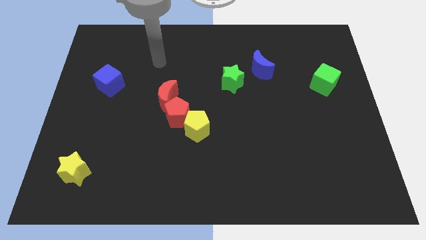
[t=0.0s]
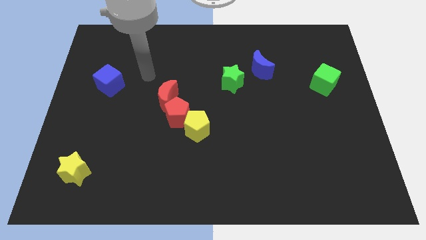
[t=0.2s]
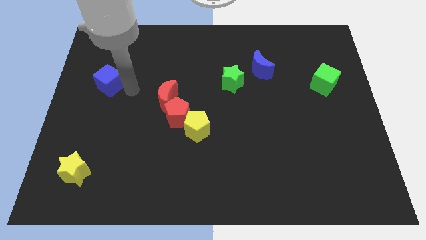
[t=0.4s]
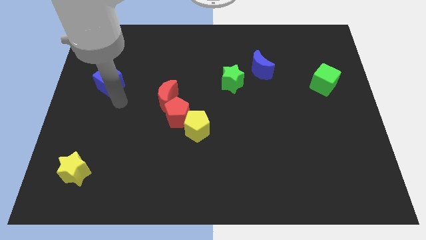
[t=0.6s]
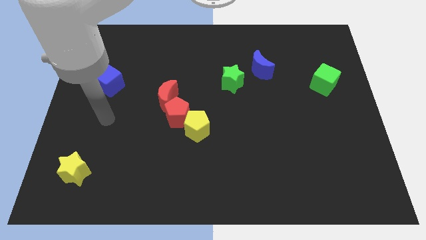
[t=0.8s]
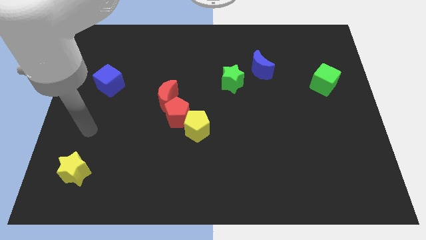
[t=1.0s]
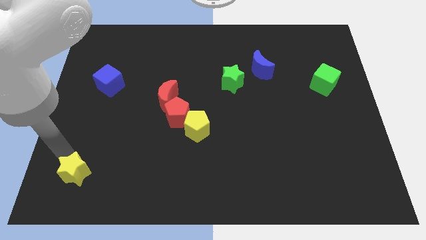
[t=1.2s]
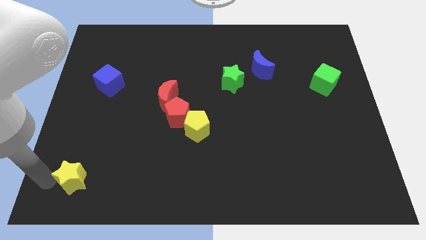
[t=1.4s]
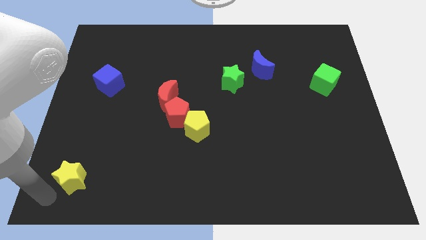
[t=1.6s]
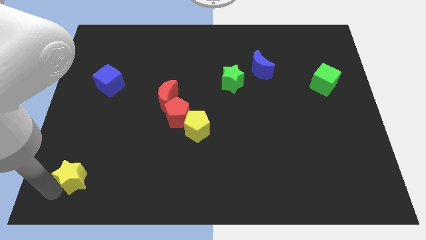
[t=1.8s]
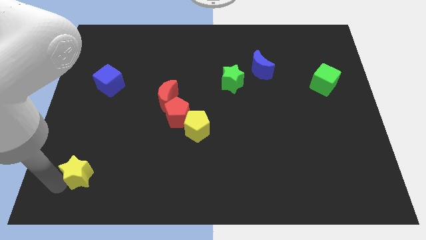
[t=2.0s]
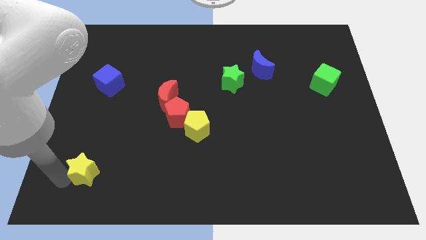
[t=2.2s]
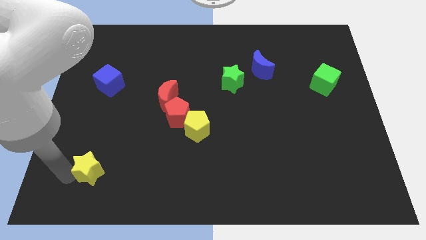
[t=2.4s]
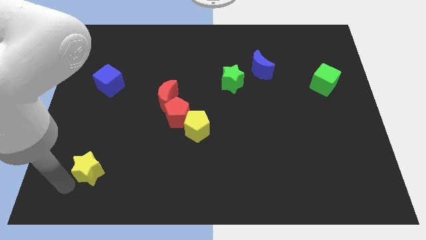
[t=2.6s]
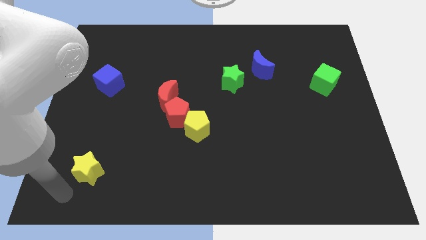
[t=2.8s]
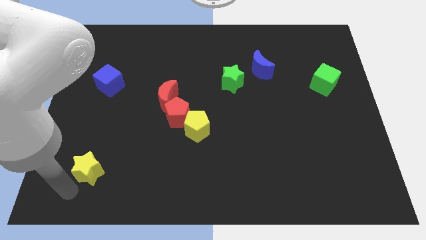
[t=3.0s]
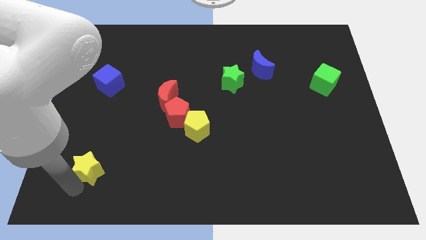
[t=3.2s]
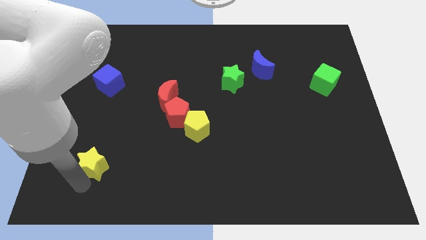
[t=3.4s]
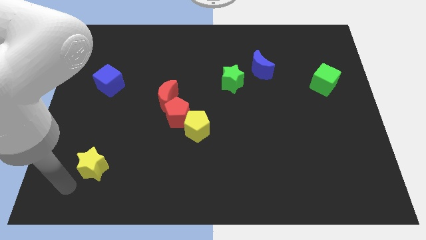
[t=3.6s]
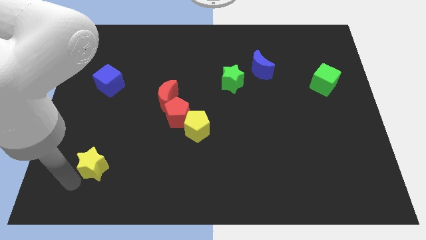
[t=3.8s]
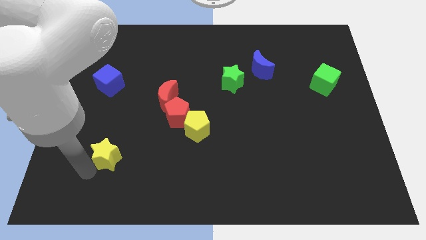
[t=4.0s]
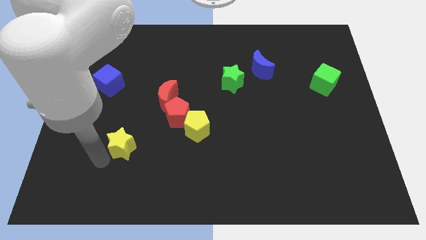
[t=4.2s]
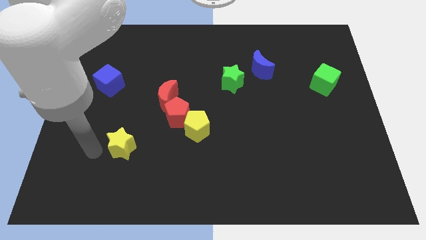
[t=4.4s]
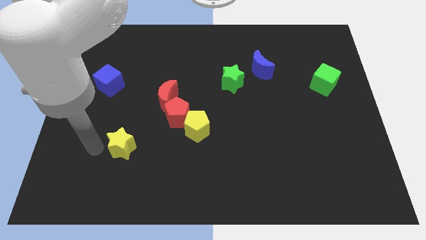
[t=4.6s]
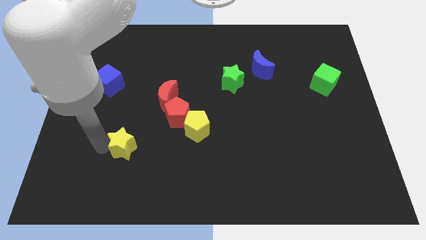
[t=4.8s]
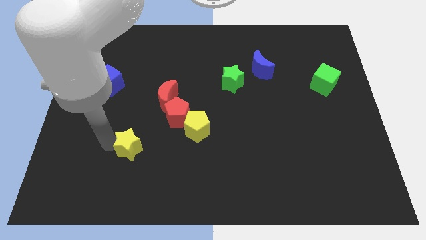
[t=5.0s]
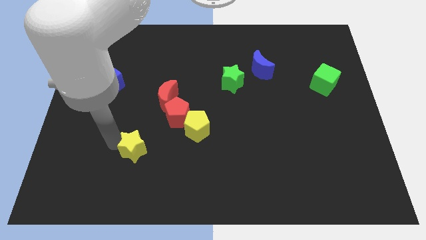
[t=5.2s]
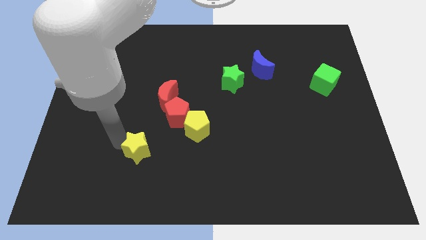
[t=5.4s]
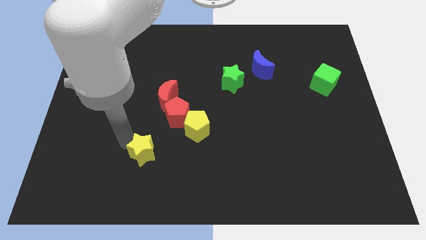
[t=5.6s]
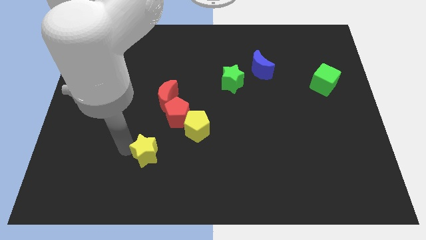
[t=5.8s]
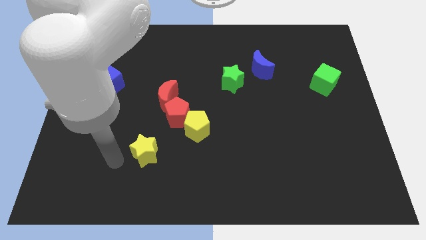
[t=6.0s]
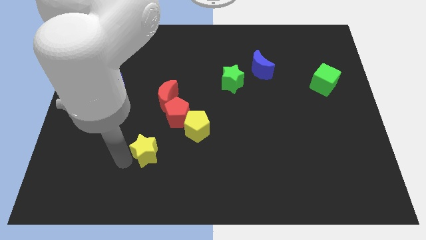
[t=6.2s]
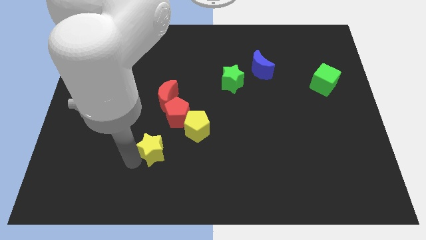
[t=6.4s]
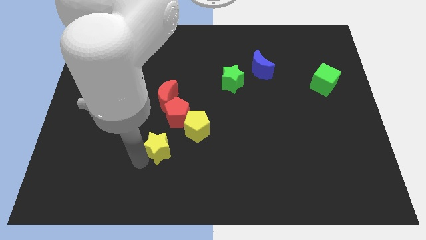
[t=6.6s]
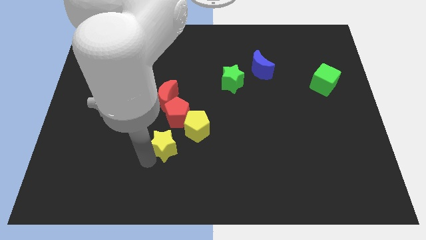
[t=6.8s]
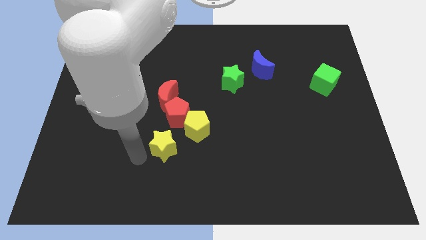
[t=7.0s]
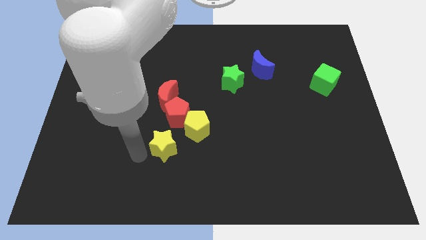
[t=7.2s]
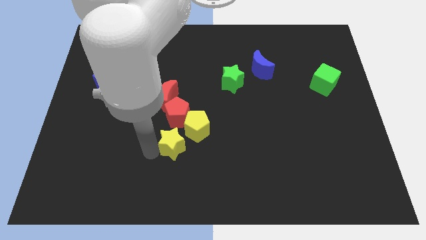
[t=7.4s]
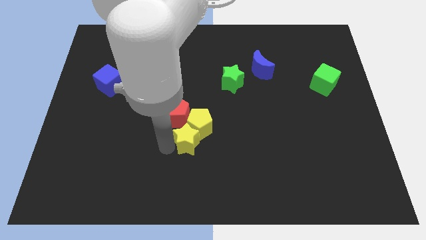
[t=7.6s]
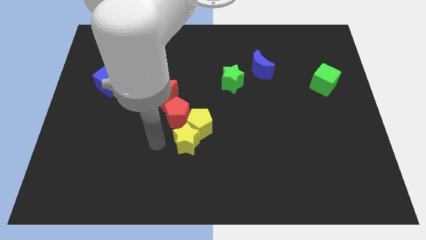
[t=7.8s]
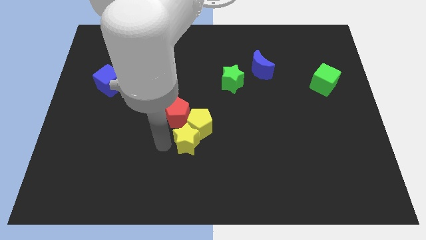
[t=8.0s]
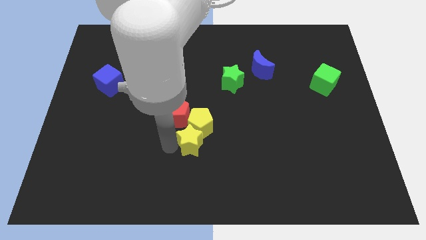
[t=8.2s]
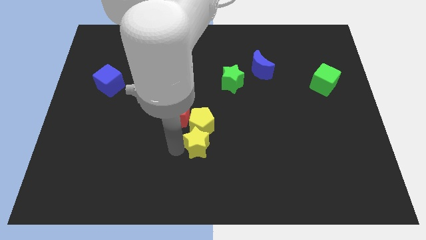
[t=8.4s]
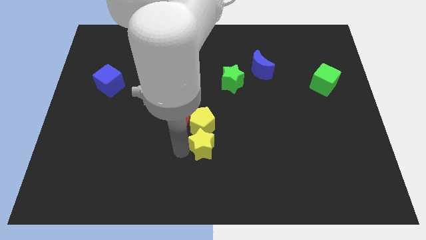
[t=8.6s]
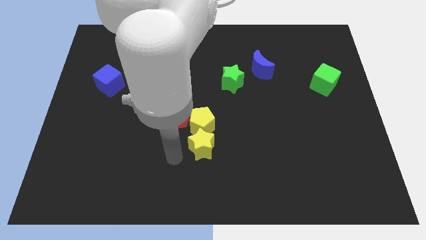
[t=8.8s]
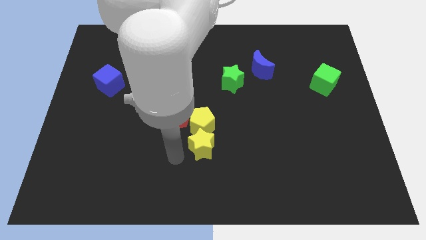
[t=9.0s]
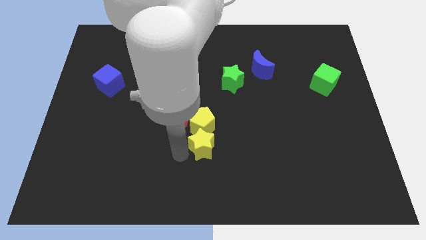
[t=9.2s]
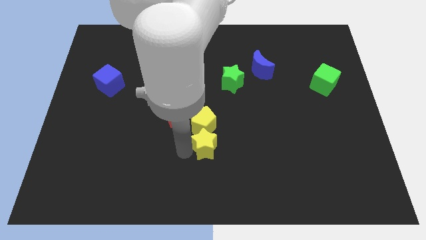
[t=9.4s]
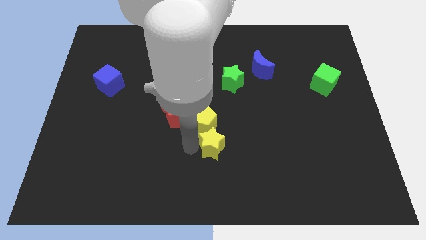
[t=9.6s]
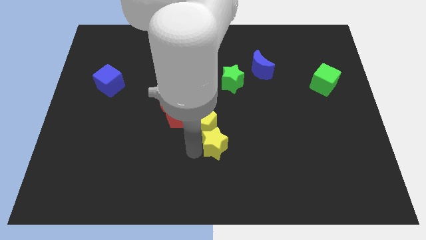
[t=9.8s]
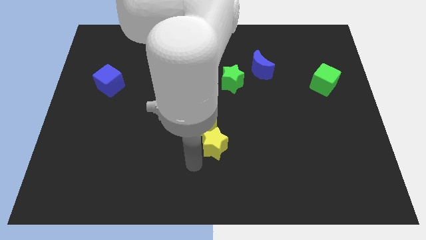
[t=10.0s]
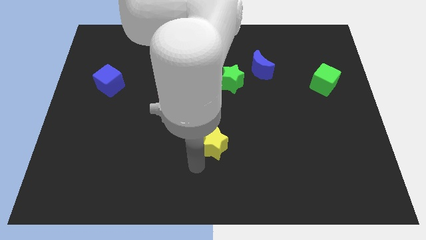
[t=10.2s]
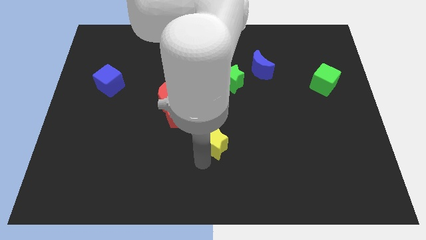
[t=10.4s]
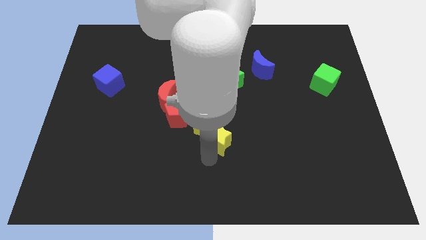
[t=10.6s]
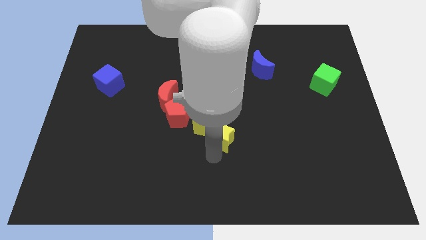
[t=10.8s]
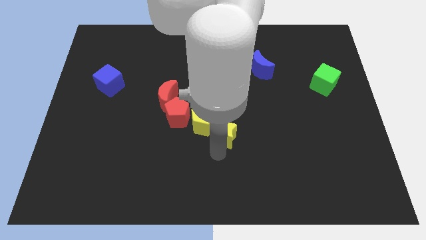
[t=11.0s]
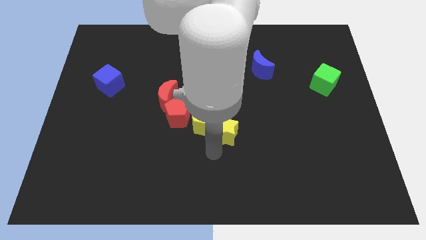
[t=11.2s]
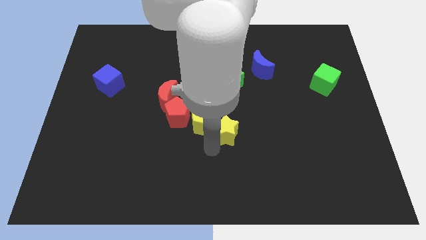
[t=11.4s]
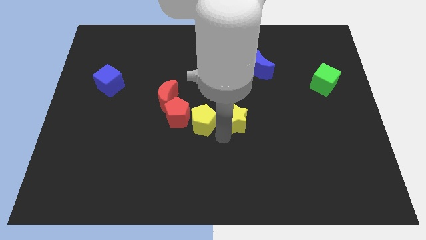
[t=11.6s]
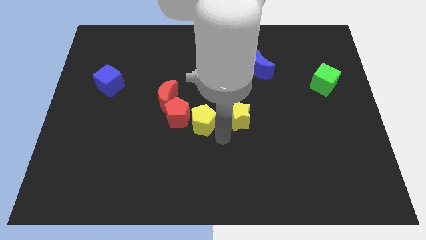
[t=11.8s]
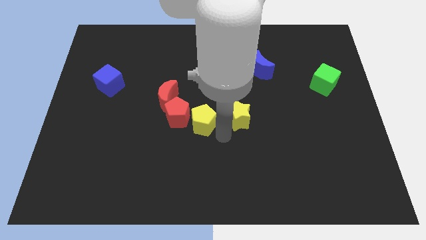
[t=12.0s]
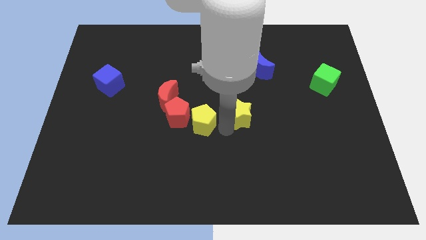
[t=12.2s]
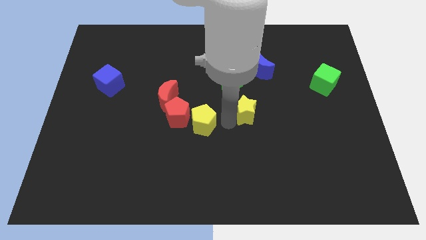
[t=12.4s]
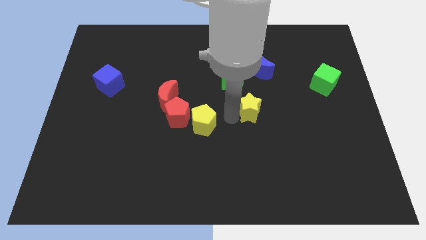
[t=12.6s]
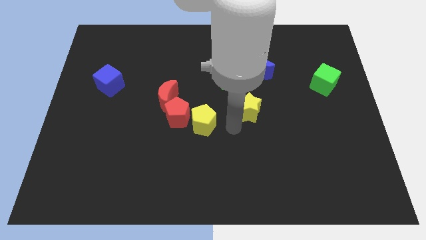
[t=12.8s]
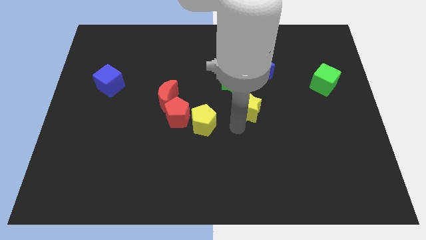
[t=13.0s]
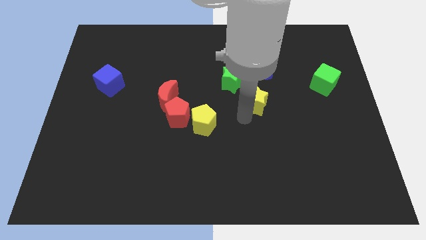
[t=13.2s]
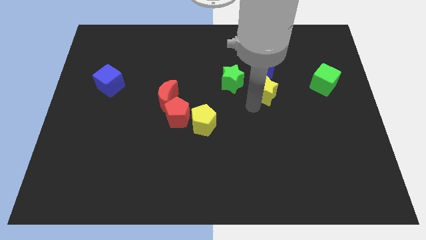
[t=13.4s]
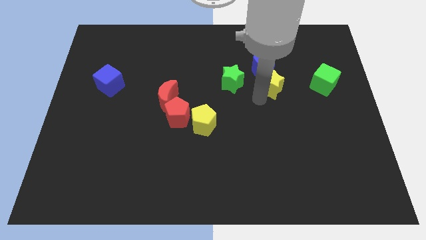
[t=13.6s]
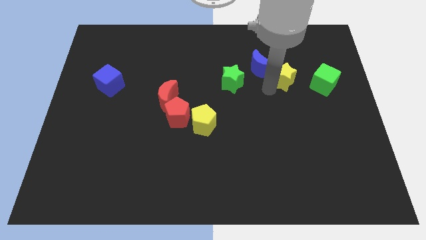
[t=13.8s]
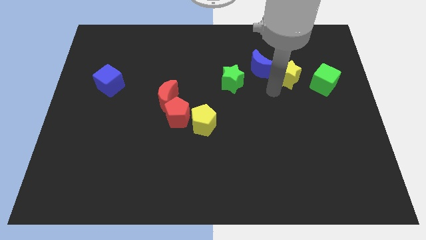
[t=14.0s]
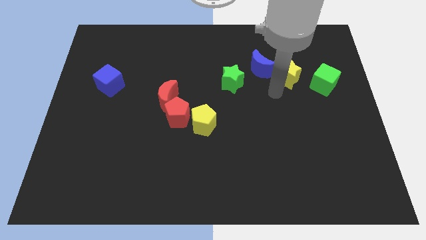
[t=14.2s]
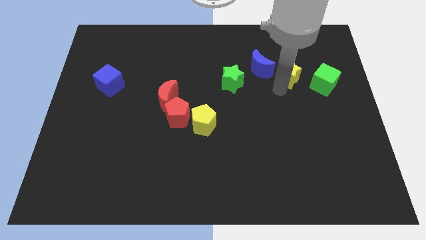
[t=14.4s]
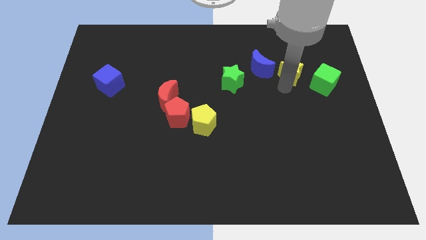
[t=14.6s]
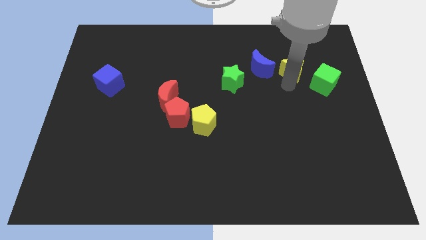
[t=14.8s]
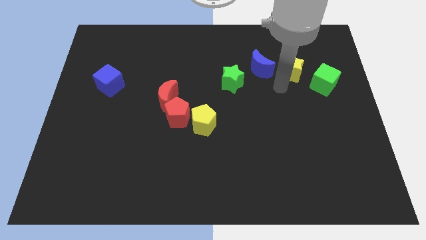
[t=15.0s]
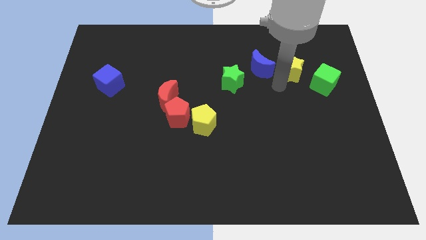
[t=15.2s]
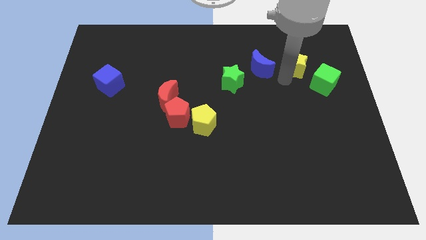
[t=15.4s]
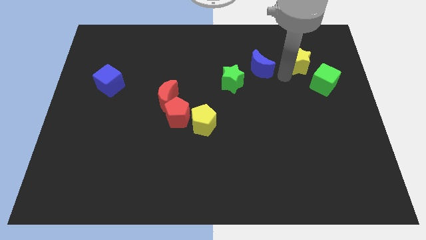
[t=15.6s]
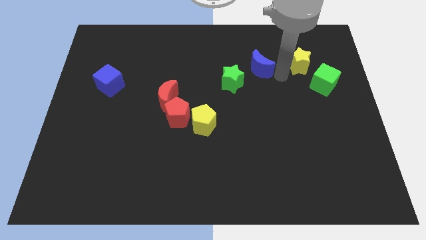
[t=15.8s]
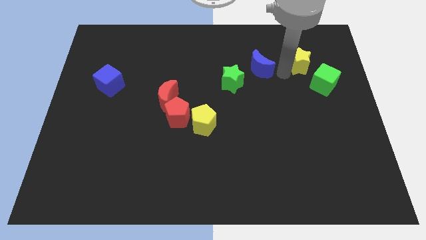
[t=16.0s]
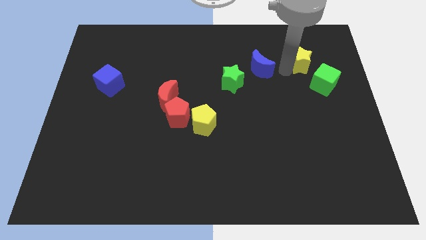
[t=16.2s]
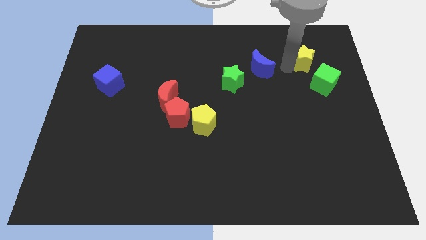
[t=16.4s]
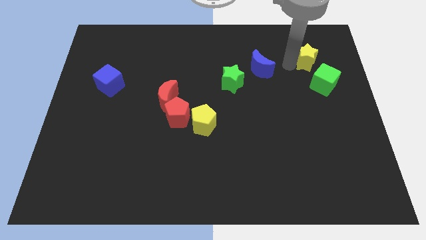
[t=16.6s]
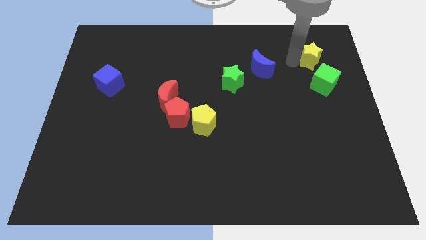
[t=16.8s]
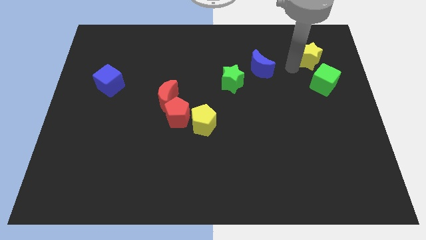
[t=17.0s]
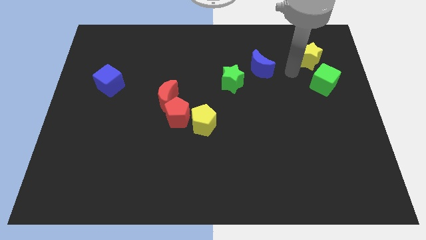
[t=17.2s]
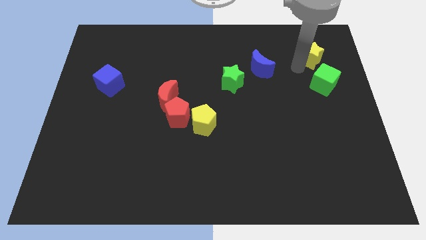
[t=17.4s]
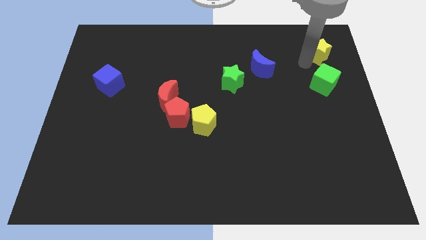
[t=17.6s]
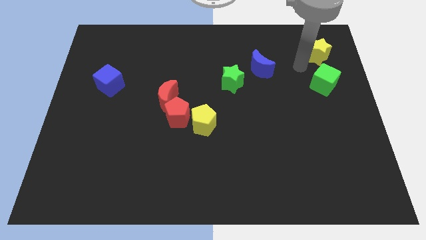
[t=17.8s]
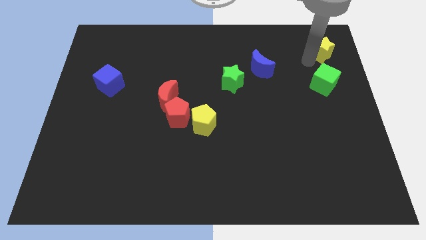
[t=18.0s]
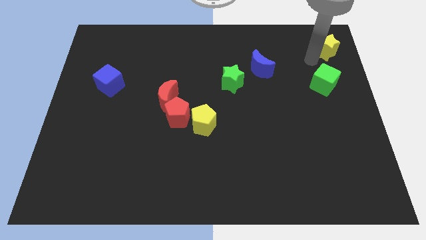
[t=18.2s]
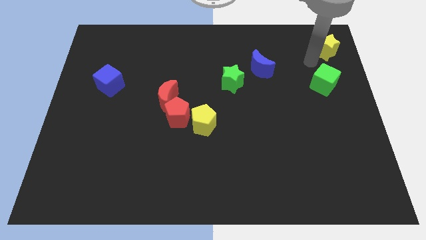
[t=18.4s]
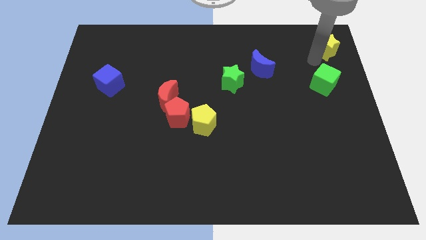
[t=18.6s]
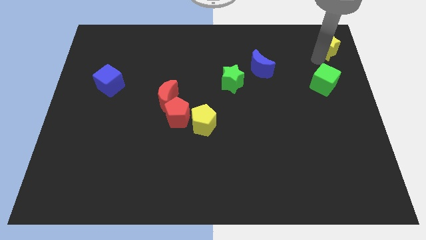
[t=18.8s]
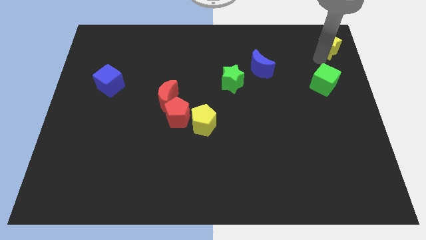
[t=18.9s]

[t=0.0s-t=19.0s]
push the yellow star to the top right corner
